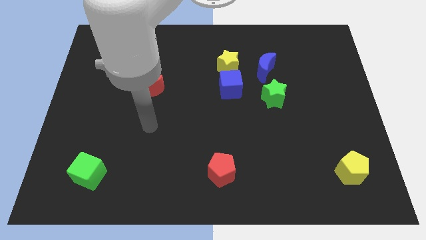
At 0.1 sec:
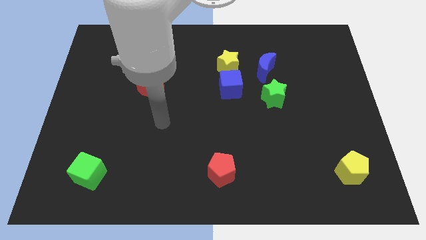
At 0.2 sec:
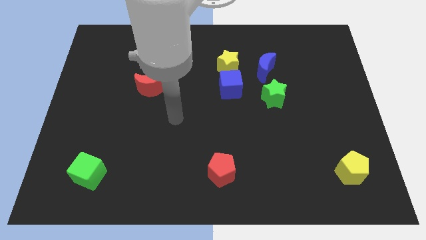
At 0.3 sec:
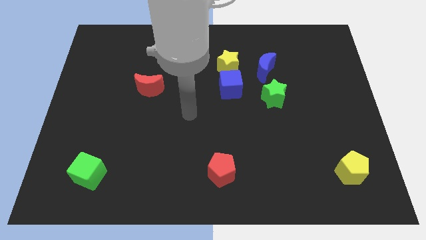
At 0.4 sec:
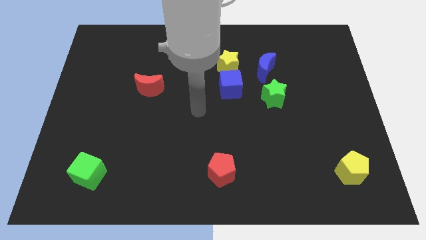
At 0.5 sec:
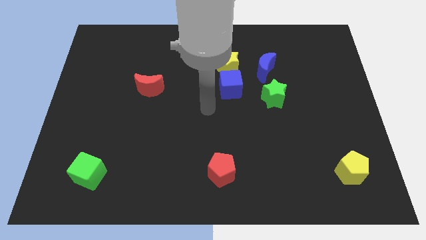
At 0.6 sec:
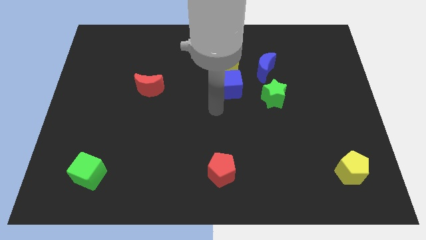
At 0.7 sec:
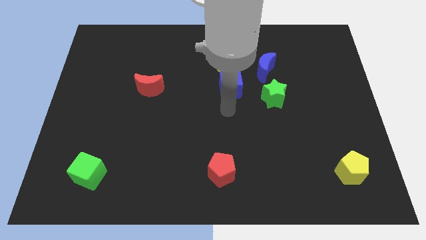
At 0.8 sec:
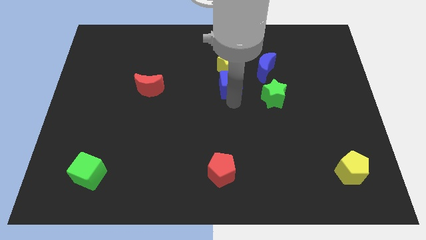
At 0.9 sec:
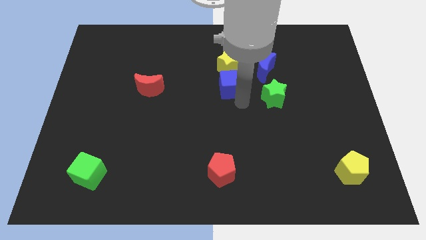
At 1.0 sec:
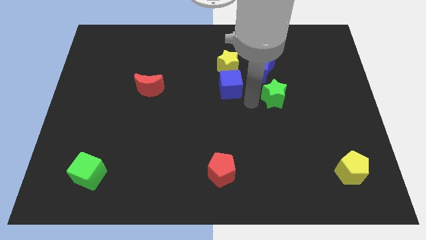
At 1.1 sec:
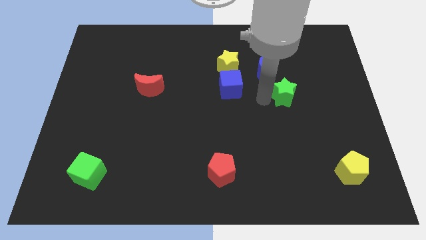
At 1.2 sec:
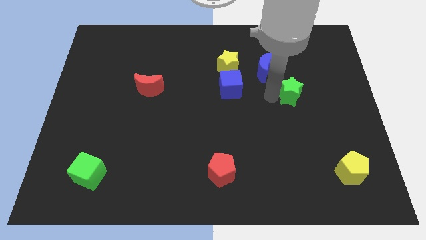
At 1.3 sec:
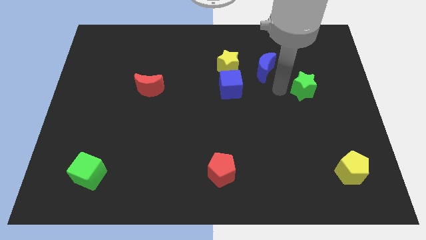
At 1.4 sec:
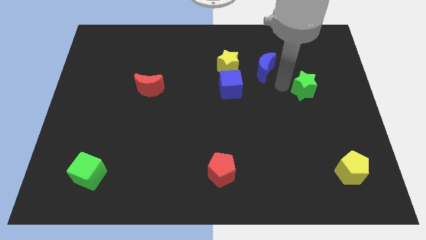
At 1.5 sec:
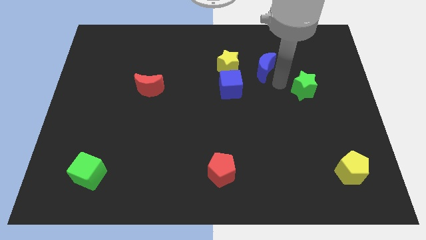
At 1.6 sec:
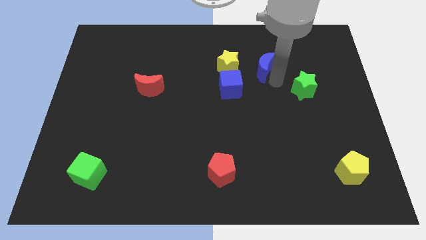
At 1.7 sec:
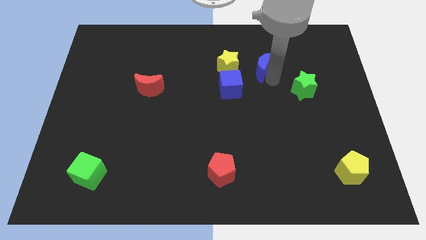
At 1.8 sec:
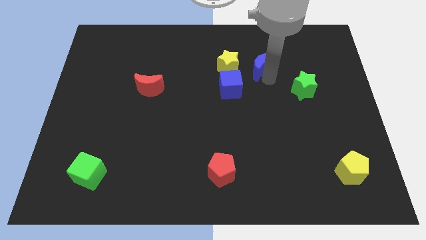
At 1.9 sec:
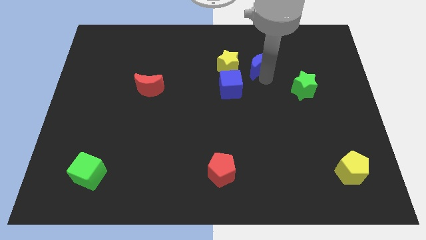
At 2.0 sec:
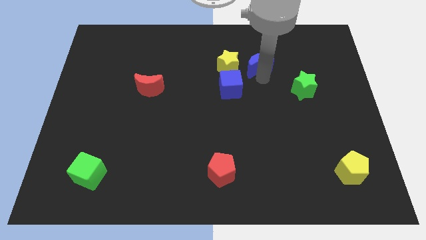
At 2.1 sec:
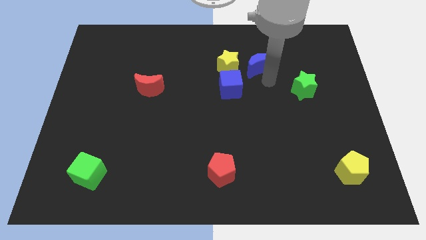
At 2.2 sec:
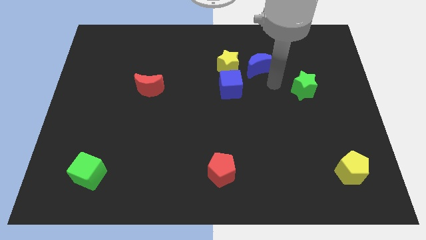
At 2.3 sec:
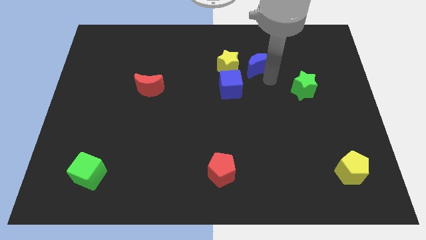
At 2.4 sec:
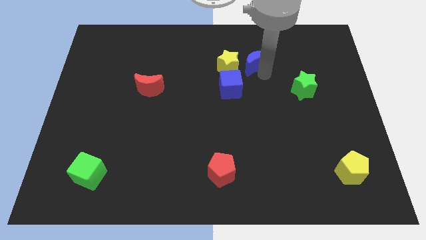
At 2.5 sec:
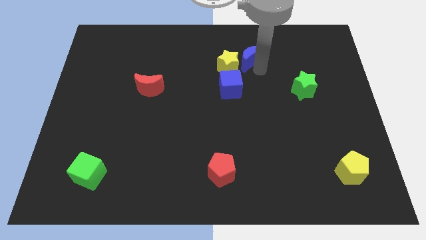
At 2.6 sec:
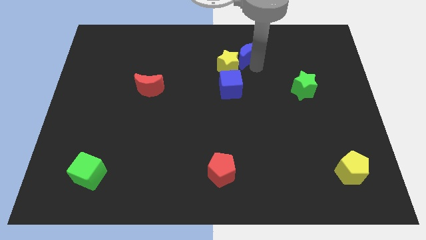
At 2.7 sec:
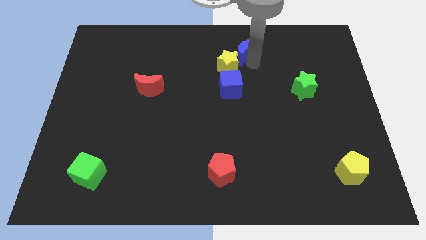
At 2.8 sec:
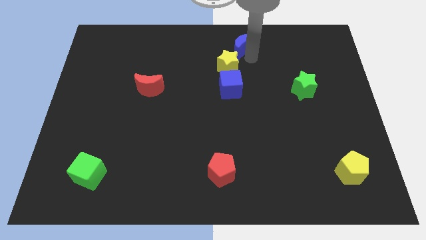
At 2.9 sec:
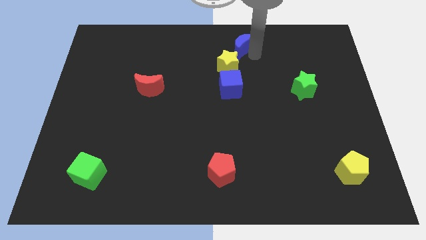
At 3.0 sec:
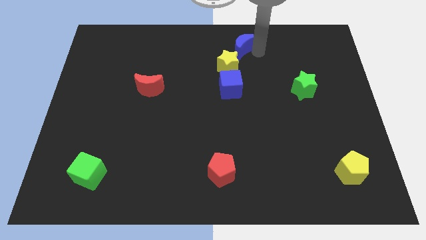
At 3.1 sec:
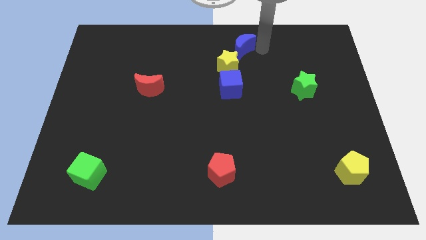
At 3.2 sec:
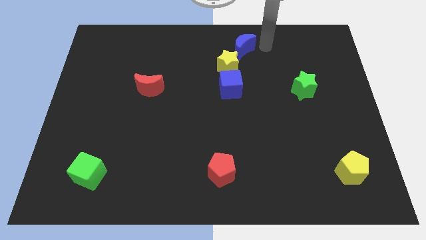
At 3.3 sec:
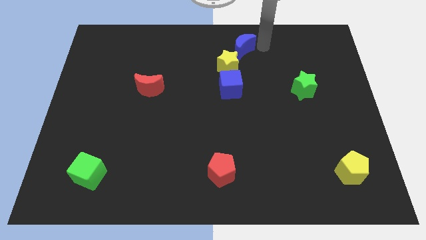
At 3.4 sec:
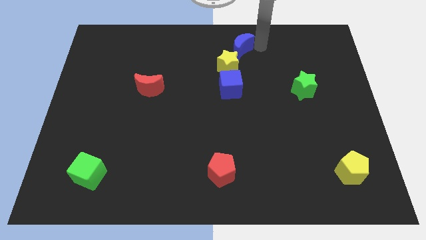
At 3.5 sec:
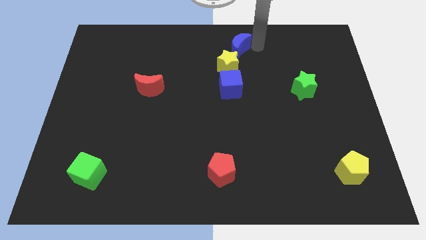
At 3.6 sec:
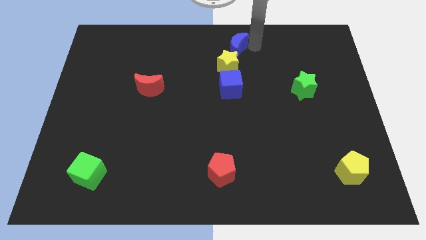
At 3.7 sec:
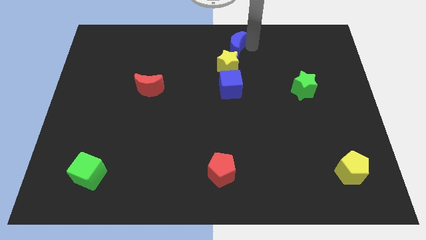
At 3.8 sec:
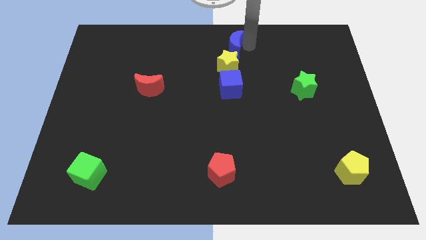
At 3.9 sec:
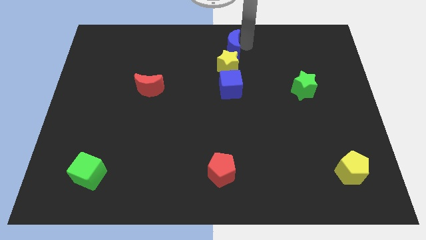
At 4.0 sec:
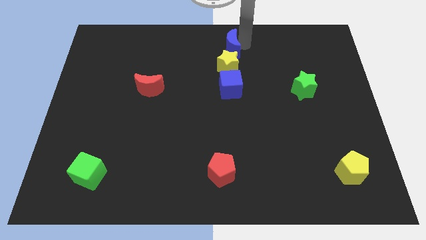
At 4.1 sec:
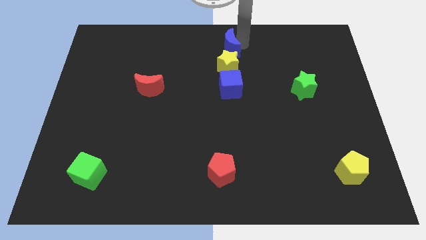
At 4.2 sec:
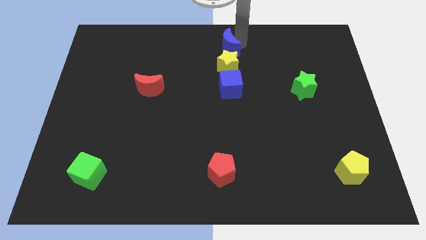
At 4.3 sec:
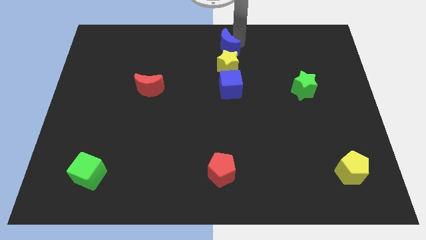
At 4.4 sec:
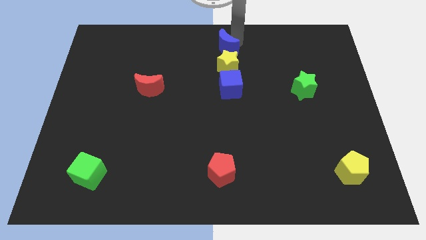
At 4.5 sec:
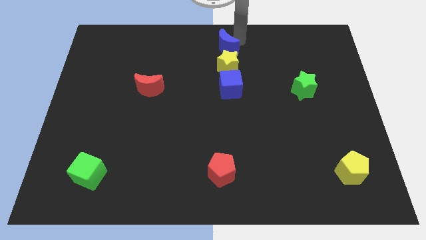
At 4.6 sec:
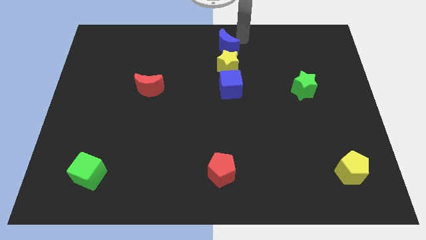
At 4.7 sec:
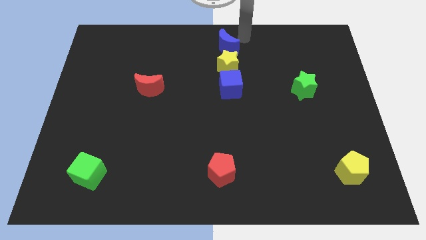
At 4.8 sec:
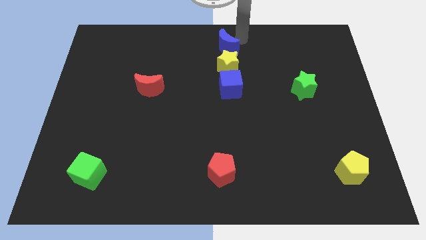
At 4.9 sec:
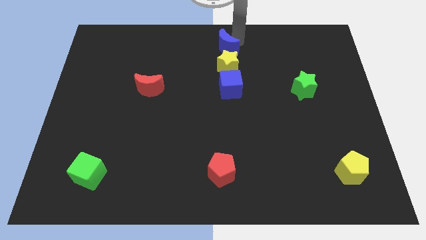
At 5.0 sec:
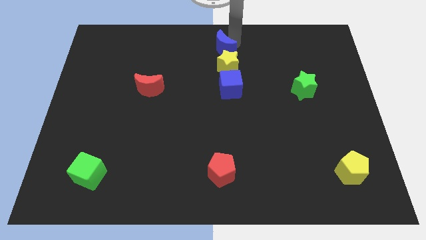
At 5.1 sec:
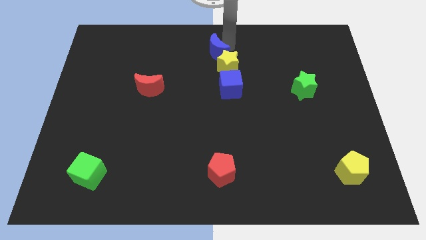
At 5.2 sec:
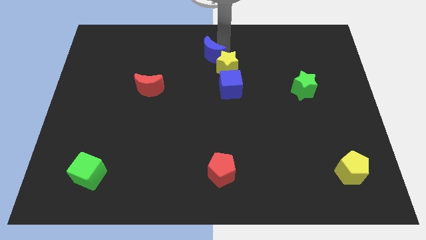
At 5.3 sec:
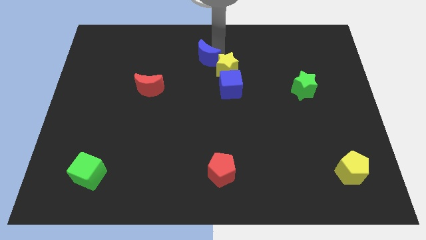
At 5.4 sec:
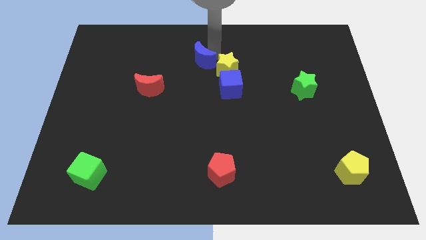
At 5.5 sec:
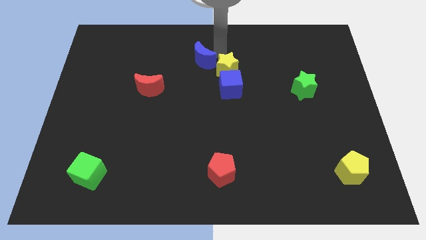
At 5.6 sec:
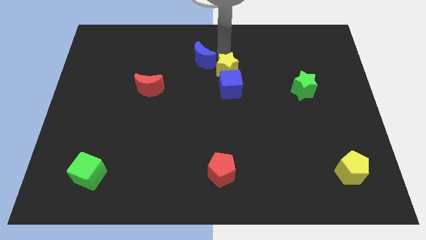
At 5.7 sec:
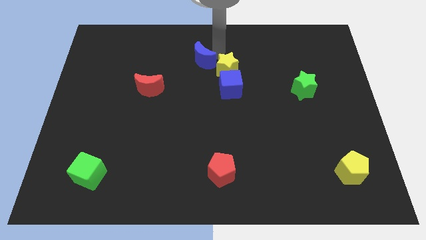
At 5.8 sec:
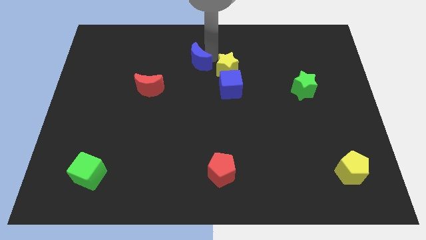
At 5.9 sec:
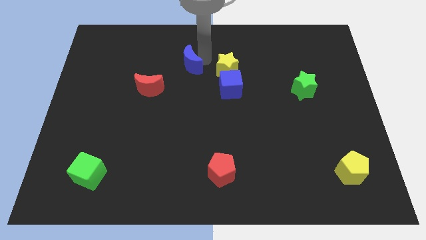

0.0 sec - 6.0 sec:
put the blue moon to the top right of the red moon

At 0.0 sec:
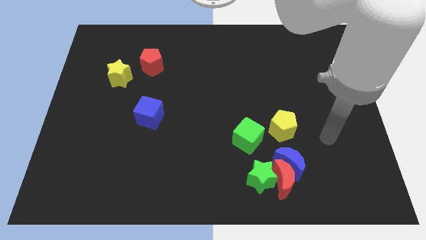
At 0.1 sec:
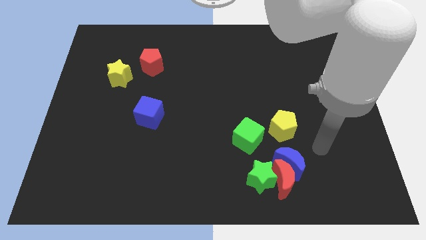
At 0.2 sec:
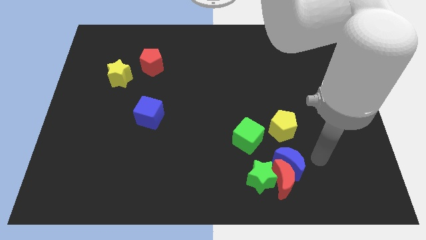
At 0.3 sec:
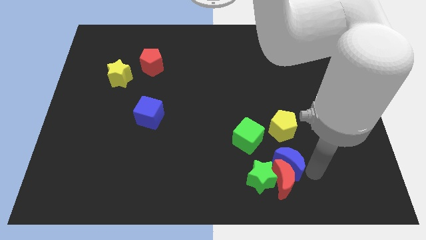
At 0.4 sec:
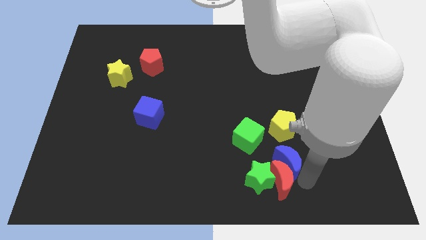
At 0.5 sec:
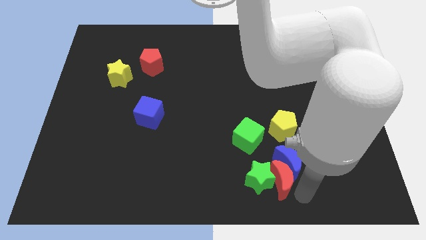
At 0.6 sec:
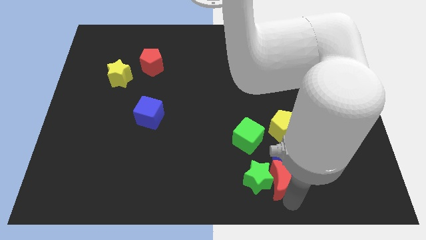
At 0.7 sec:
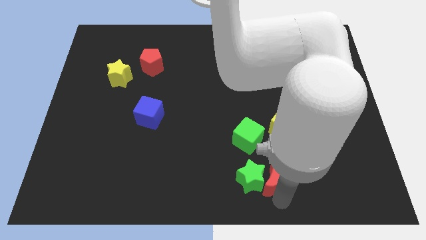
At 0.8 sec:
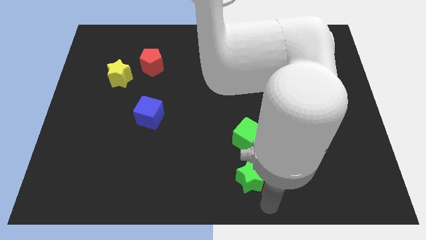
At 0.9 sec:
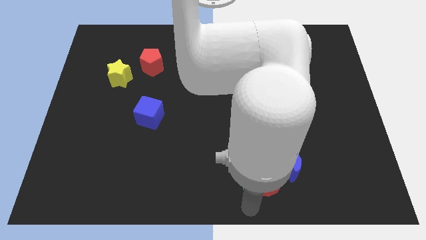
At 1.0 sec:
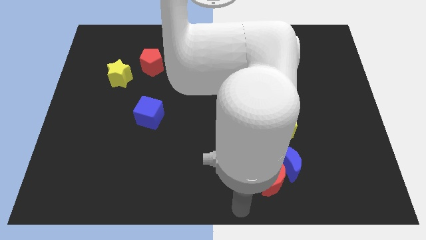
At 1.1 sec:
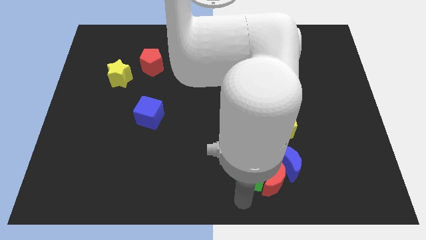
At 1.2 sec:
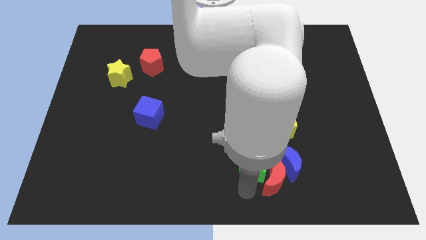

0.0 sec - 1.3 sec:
push the green star to the bottom left side of the yellow pentagon
